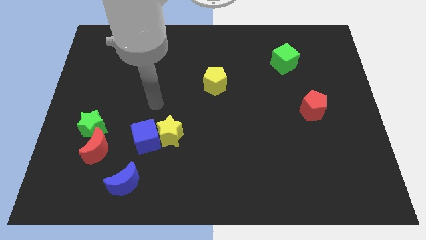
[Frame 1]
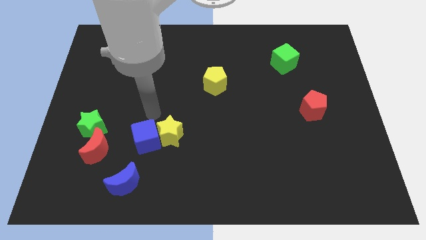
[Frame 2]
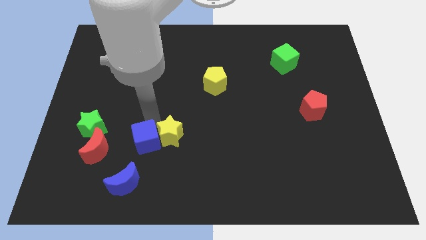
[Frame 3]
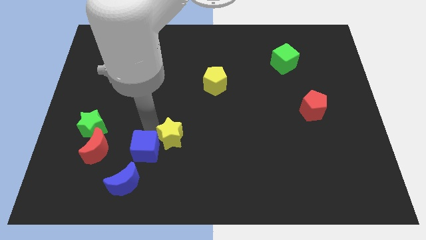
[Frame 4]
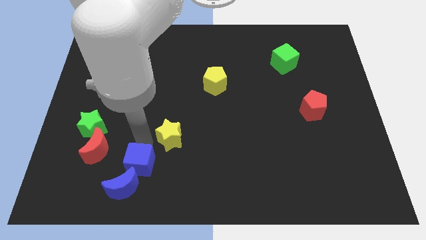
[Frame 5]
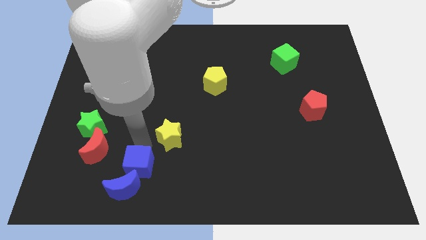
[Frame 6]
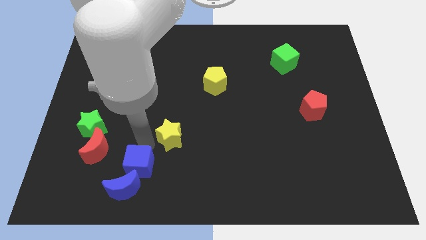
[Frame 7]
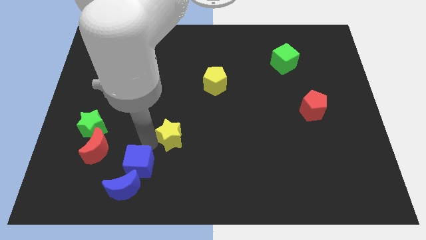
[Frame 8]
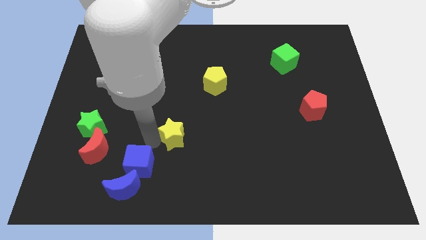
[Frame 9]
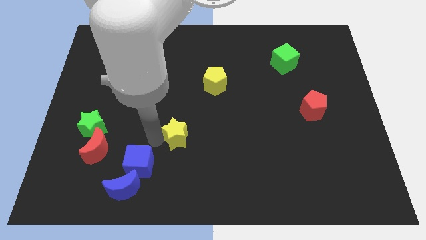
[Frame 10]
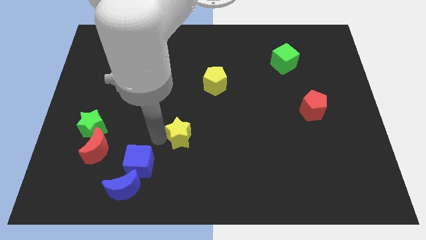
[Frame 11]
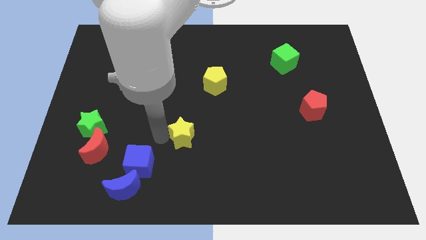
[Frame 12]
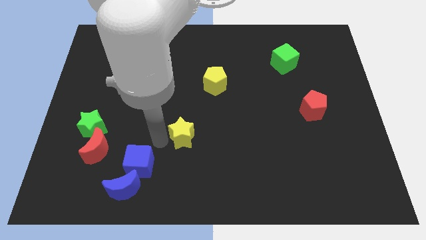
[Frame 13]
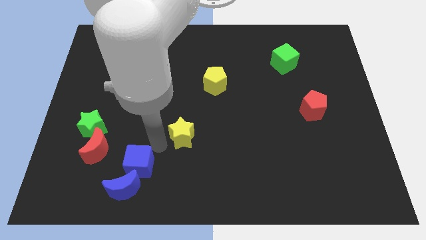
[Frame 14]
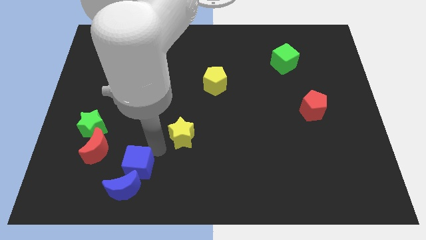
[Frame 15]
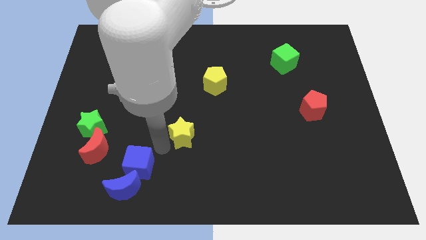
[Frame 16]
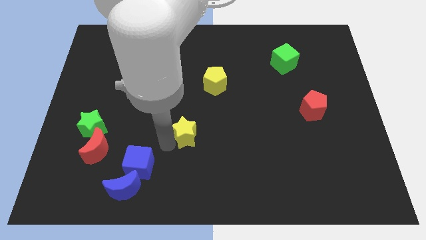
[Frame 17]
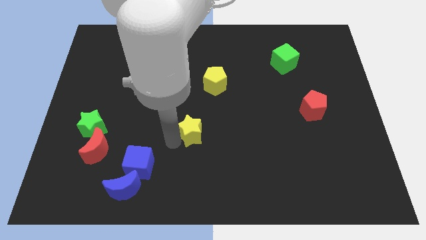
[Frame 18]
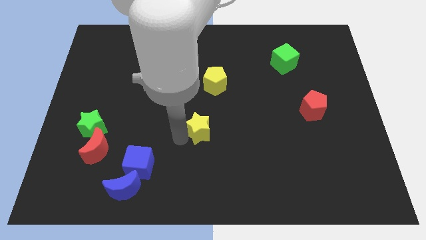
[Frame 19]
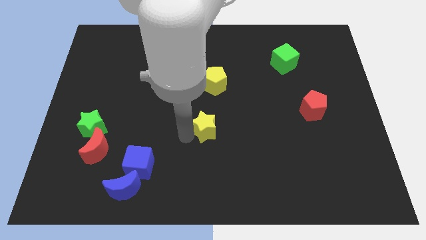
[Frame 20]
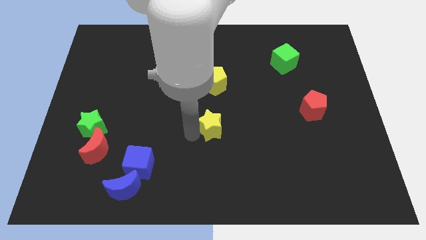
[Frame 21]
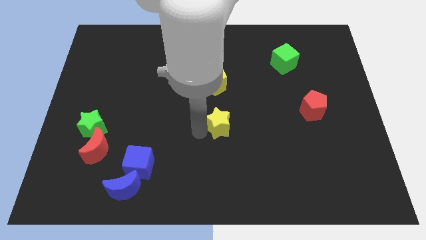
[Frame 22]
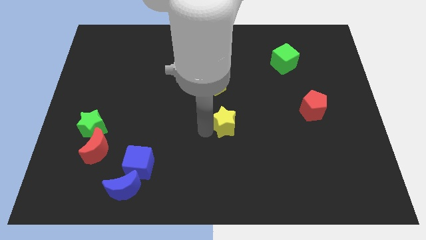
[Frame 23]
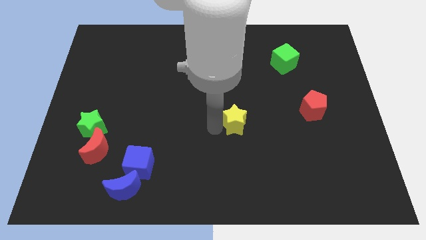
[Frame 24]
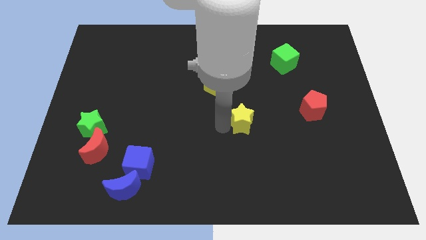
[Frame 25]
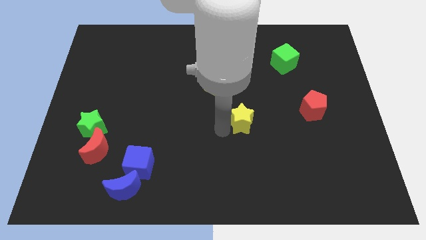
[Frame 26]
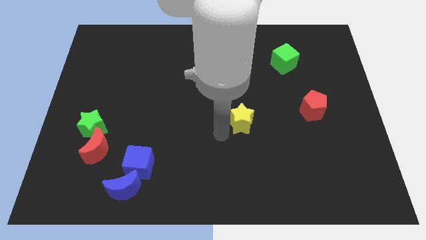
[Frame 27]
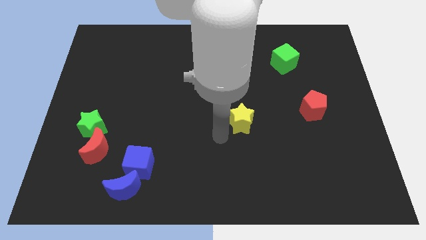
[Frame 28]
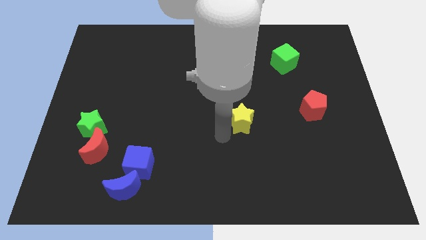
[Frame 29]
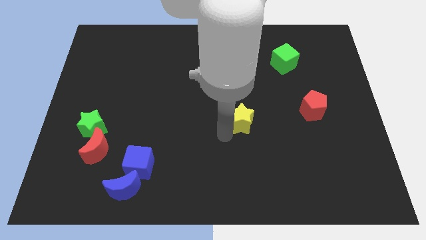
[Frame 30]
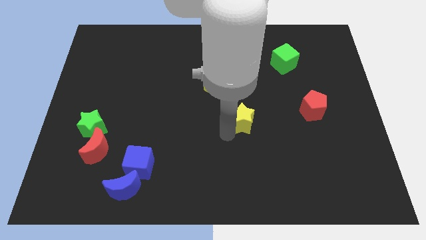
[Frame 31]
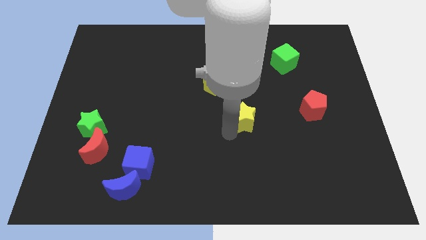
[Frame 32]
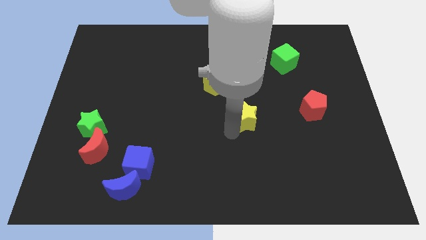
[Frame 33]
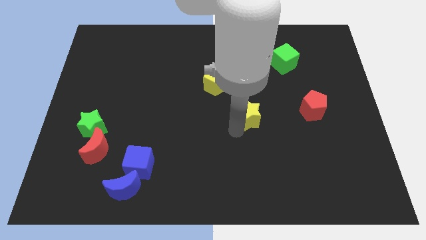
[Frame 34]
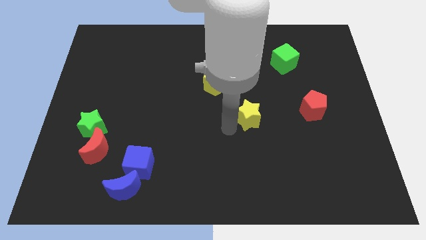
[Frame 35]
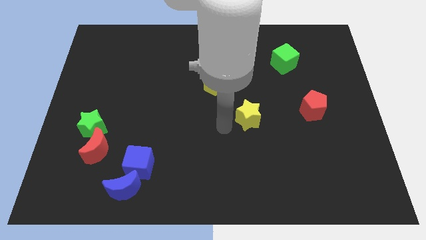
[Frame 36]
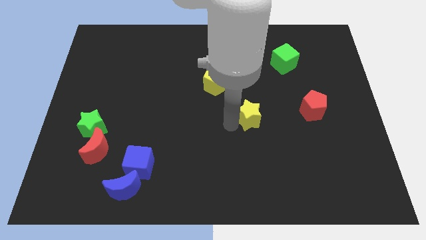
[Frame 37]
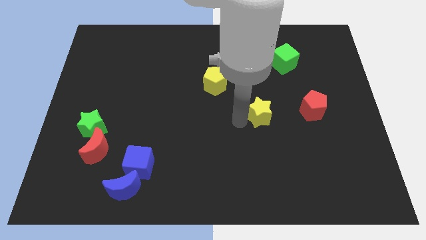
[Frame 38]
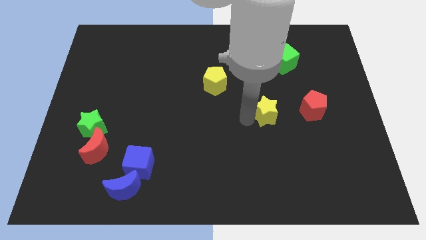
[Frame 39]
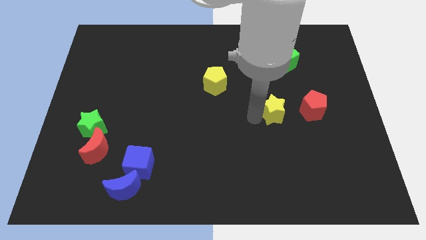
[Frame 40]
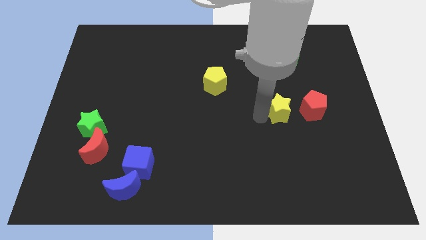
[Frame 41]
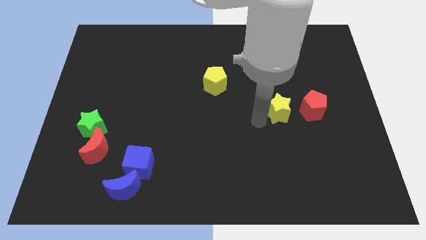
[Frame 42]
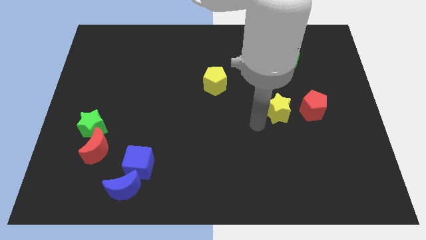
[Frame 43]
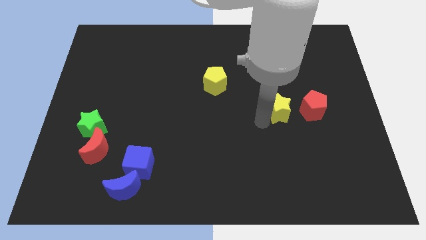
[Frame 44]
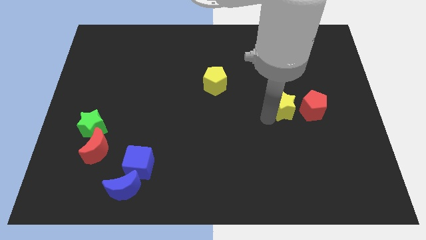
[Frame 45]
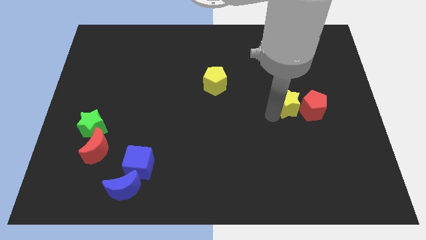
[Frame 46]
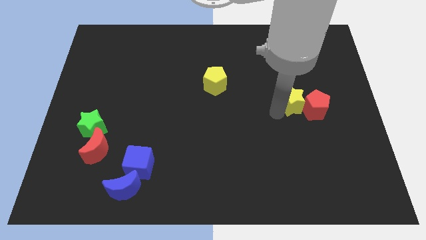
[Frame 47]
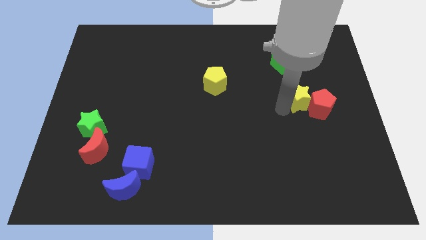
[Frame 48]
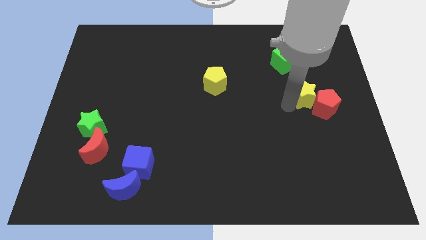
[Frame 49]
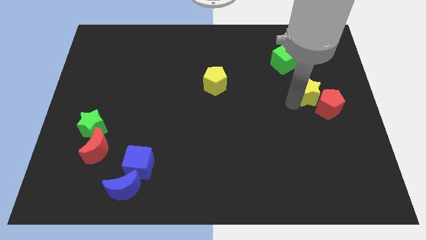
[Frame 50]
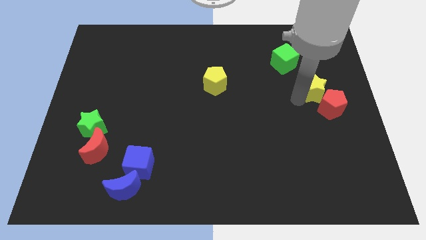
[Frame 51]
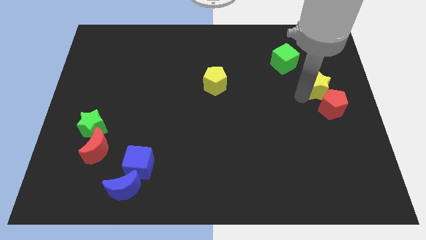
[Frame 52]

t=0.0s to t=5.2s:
slide the yellow star to the center right

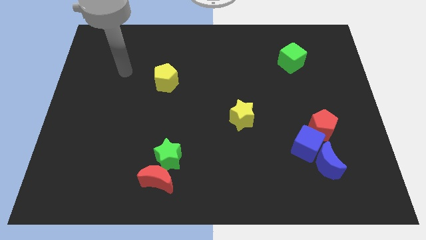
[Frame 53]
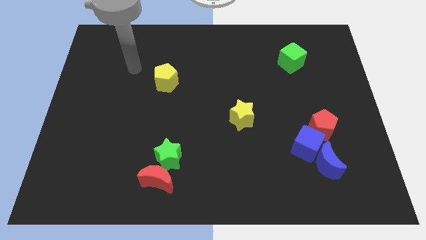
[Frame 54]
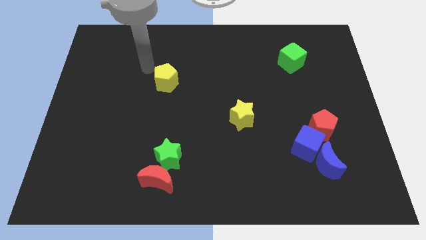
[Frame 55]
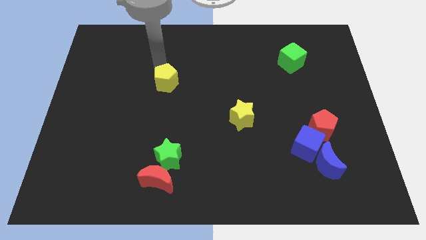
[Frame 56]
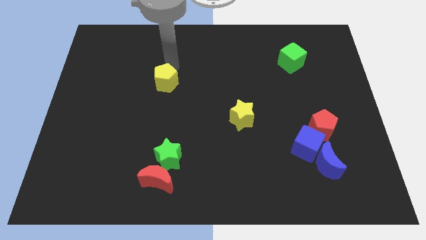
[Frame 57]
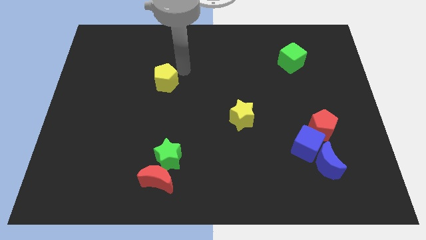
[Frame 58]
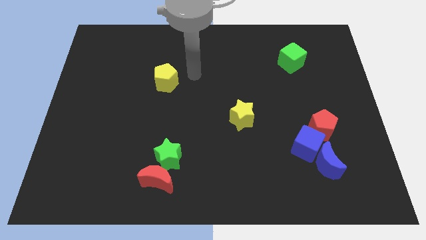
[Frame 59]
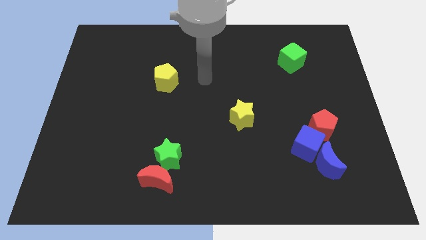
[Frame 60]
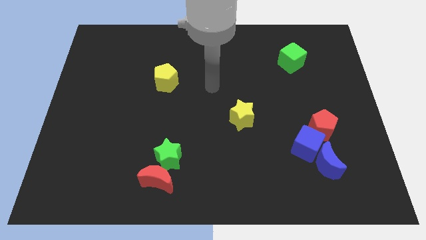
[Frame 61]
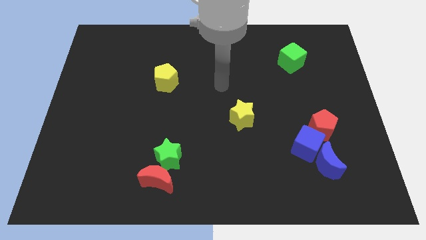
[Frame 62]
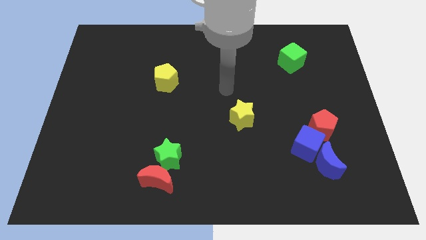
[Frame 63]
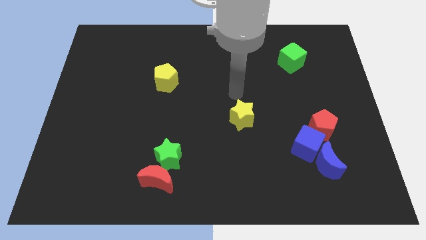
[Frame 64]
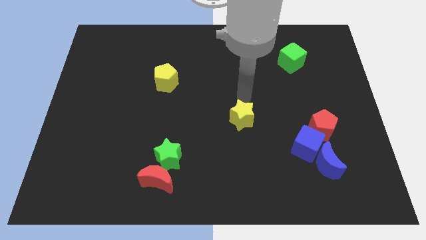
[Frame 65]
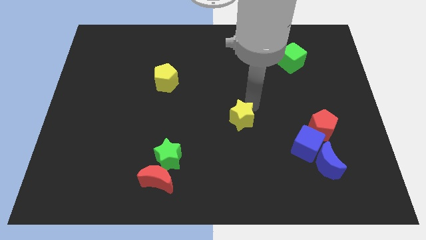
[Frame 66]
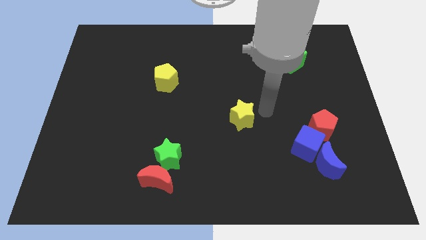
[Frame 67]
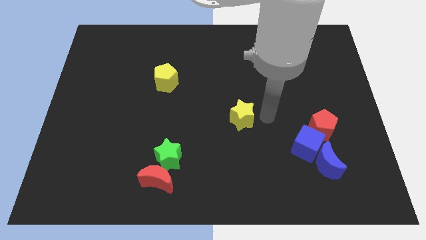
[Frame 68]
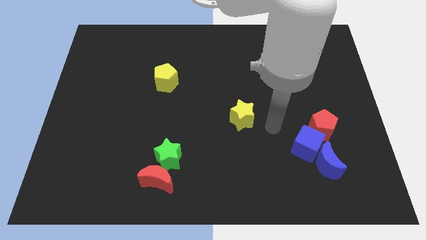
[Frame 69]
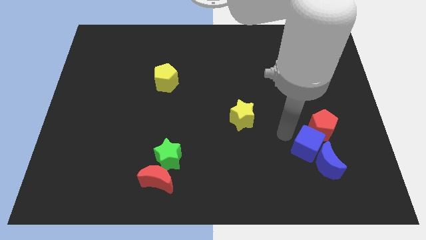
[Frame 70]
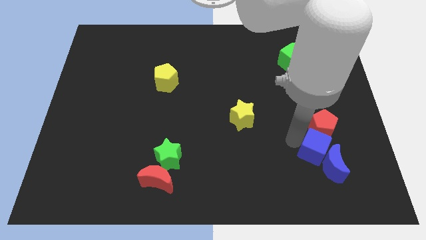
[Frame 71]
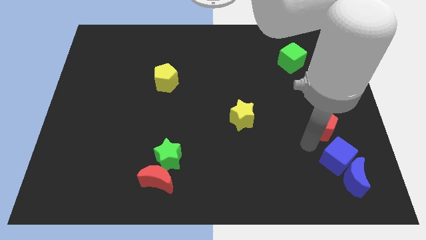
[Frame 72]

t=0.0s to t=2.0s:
push the blue moon to the lower right corner
